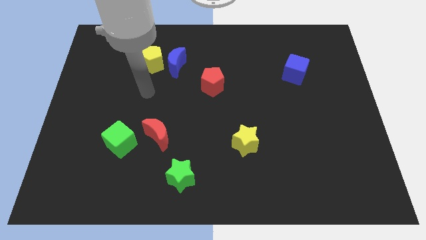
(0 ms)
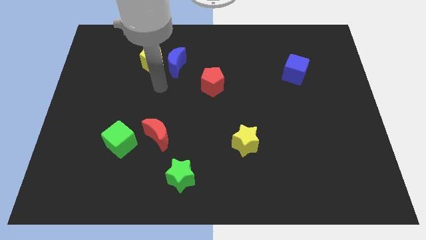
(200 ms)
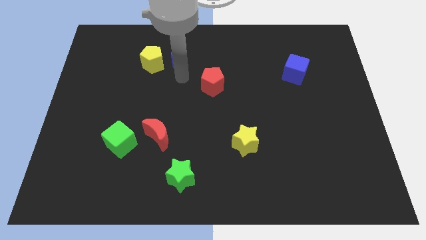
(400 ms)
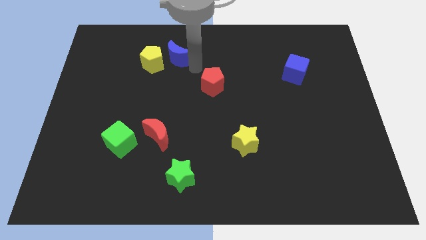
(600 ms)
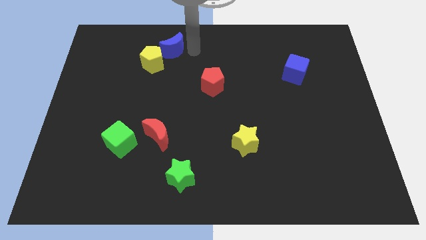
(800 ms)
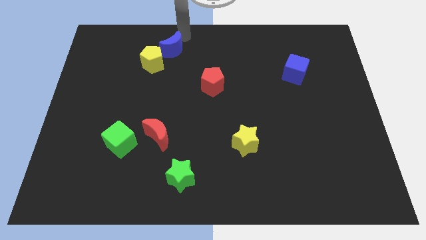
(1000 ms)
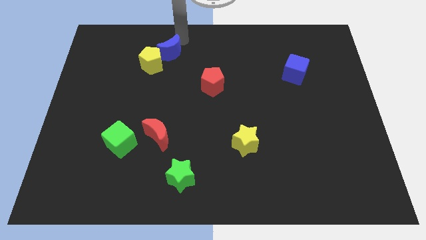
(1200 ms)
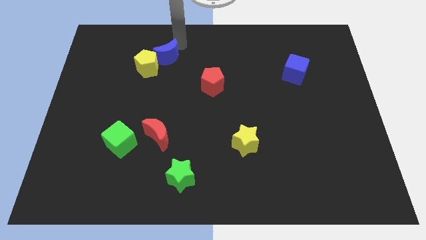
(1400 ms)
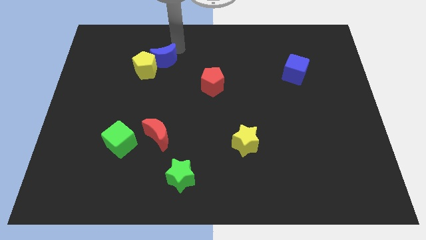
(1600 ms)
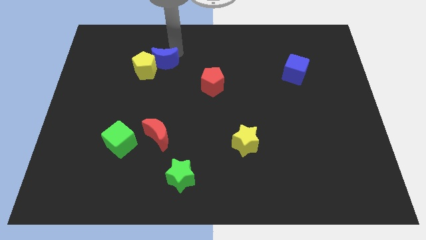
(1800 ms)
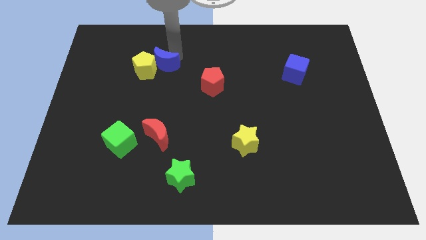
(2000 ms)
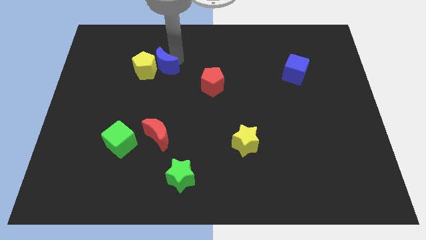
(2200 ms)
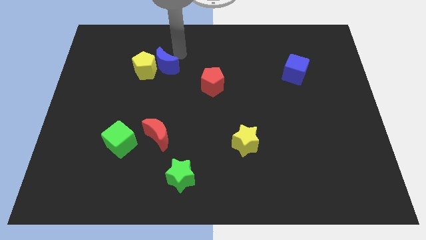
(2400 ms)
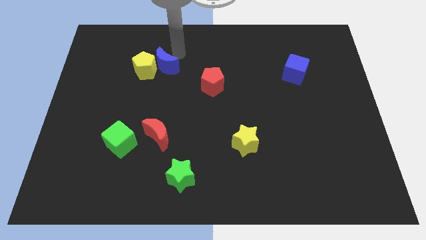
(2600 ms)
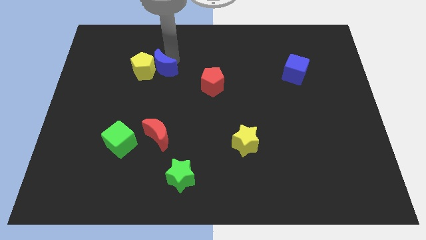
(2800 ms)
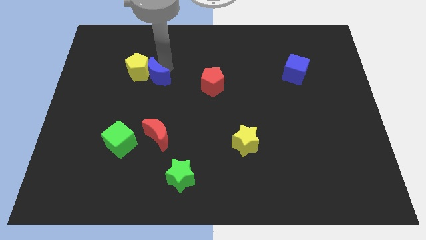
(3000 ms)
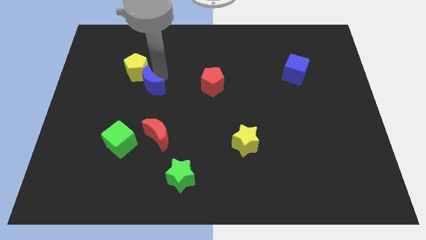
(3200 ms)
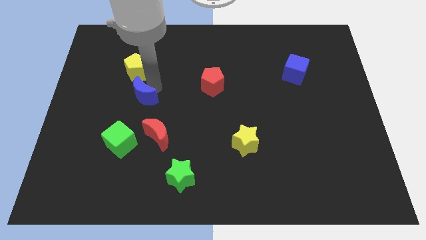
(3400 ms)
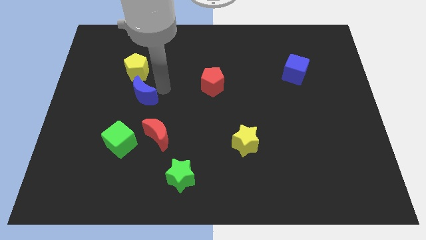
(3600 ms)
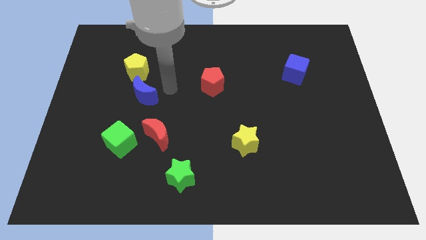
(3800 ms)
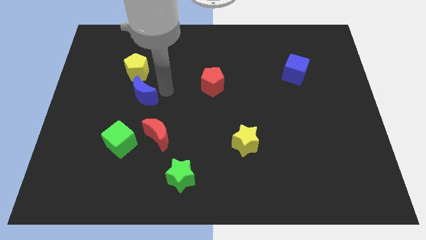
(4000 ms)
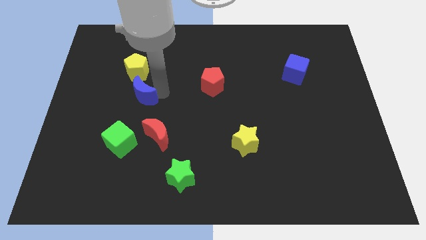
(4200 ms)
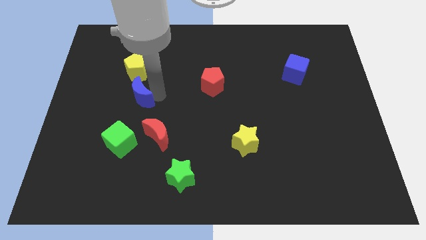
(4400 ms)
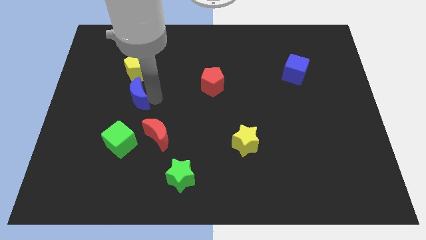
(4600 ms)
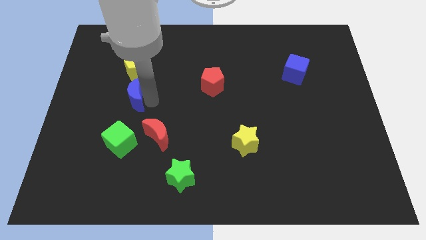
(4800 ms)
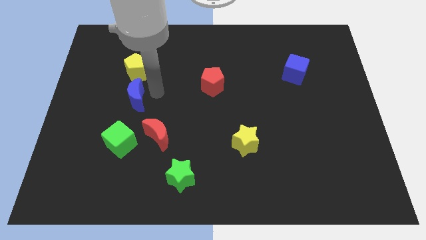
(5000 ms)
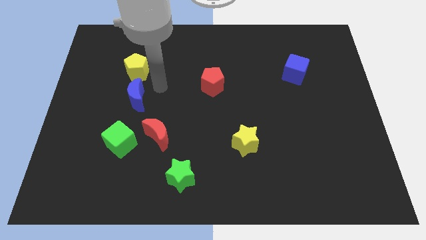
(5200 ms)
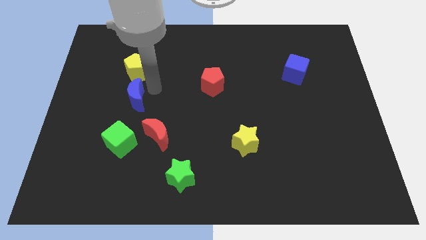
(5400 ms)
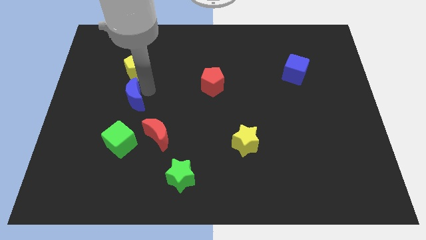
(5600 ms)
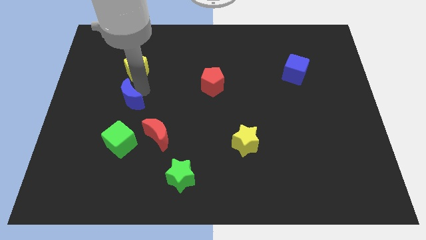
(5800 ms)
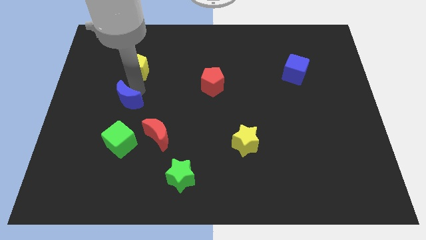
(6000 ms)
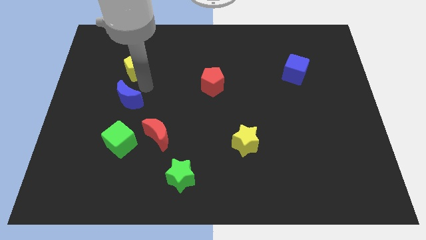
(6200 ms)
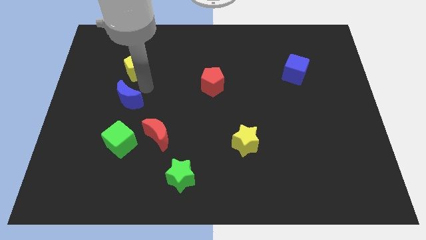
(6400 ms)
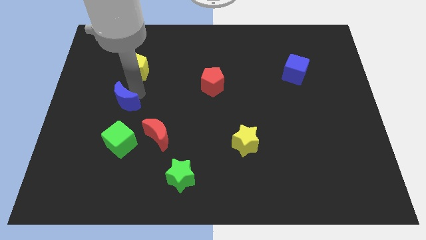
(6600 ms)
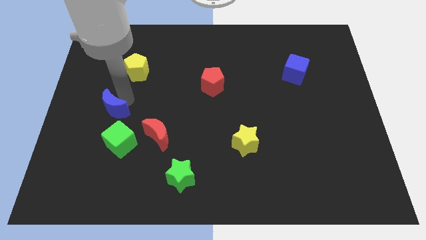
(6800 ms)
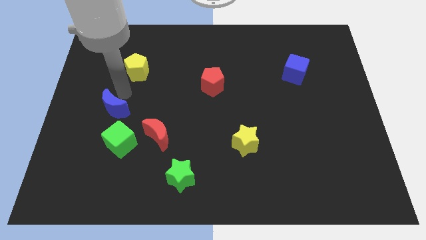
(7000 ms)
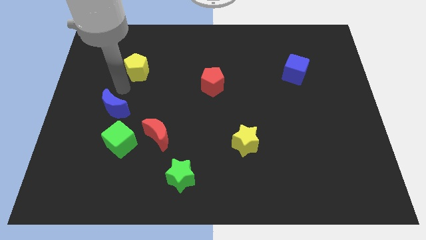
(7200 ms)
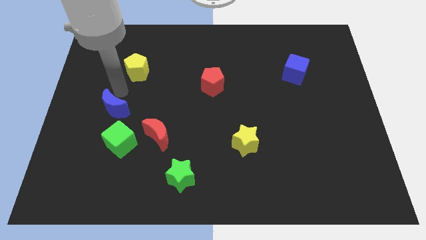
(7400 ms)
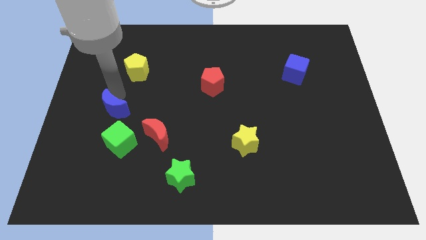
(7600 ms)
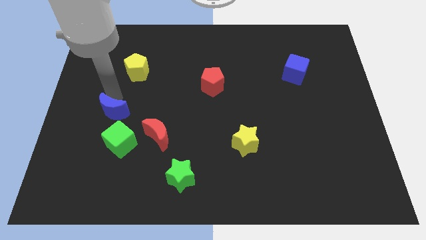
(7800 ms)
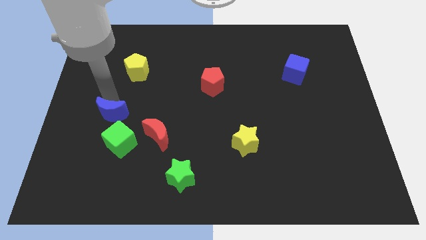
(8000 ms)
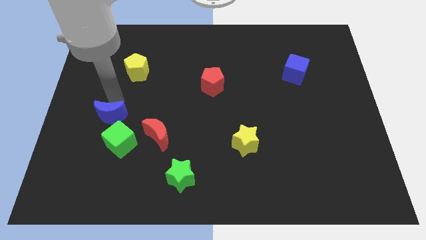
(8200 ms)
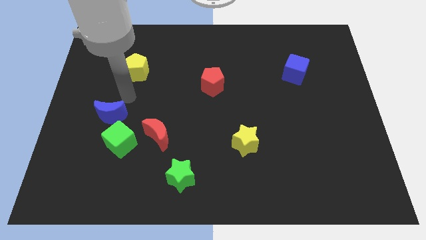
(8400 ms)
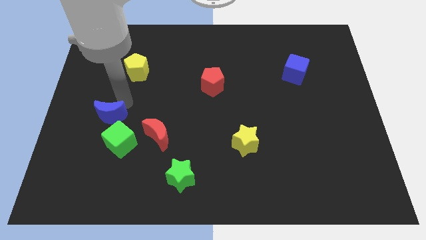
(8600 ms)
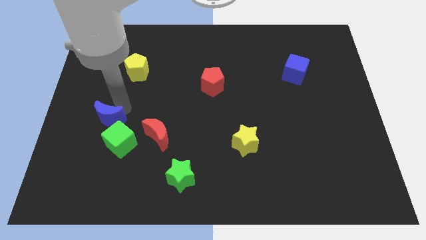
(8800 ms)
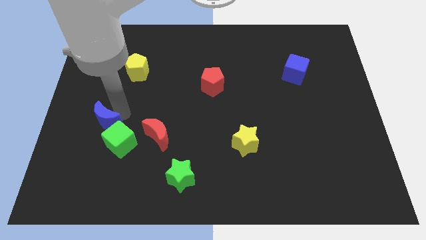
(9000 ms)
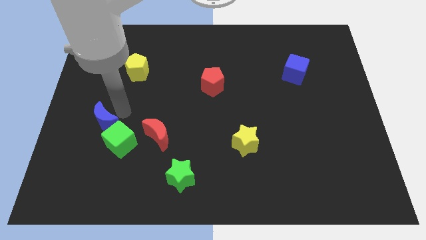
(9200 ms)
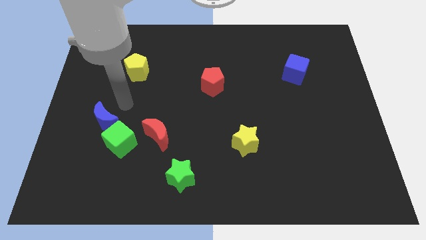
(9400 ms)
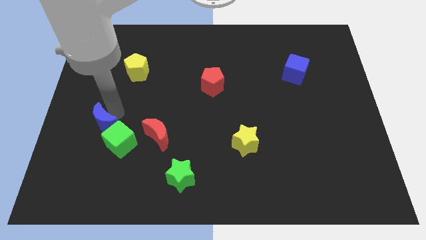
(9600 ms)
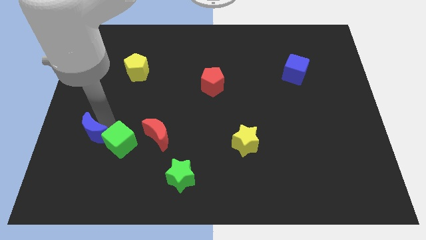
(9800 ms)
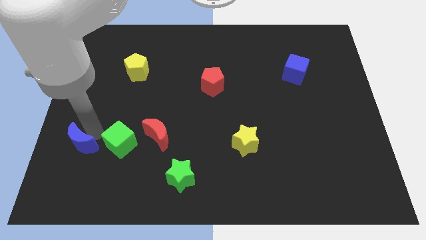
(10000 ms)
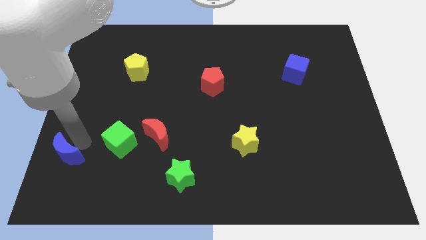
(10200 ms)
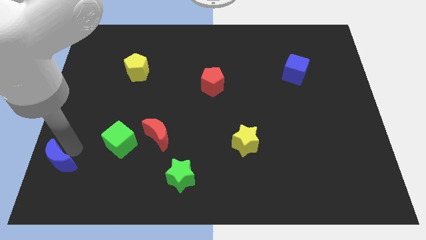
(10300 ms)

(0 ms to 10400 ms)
push the blue moon to the lower left corner

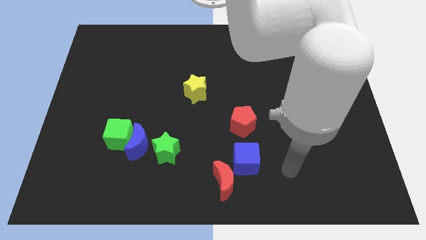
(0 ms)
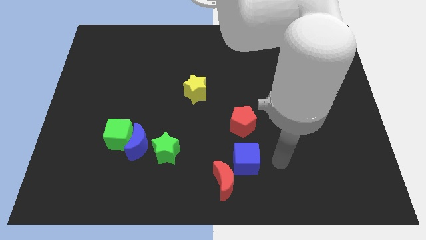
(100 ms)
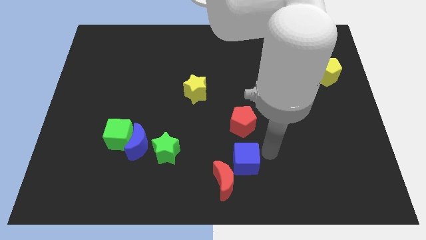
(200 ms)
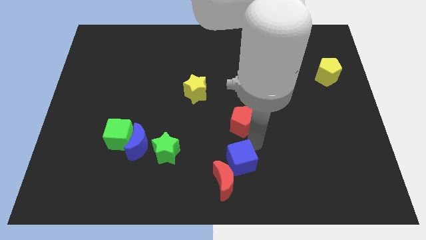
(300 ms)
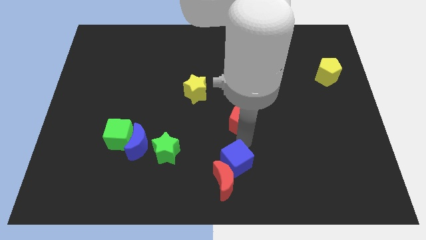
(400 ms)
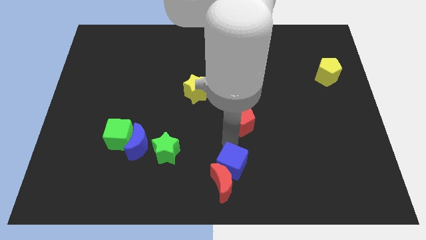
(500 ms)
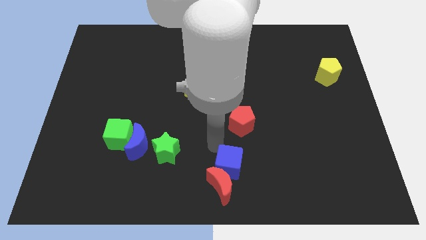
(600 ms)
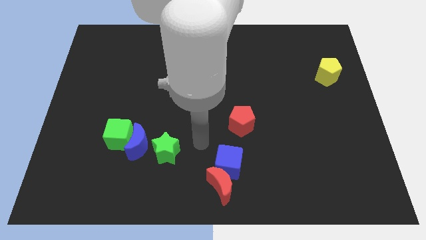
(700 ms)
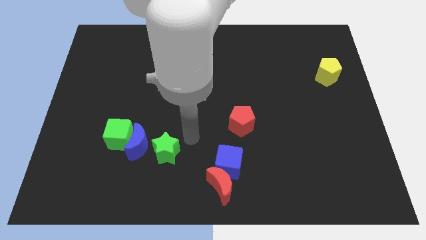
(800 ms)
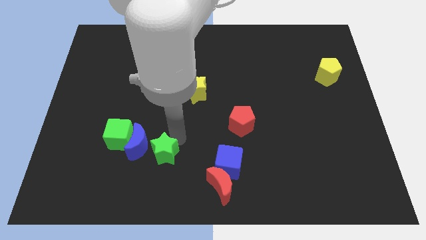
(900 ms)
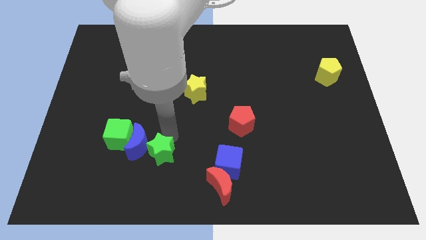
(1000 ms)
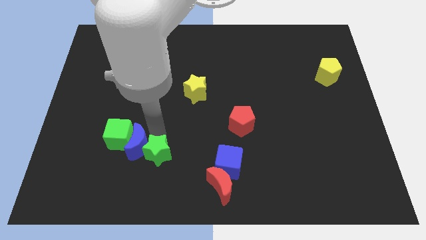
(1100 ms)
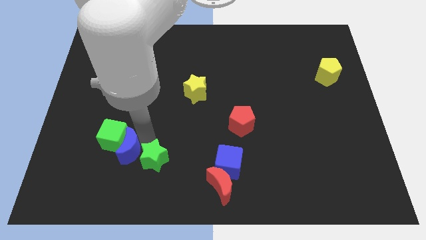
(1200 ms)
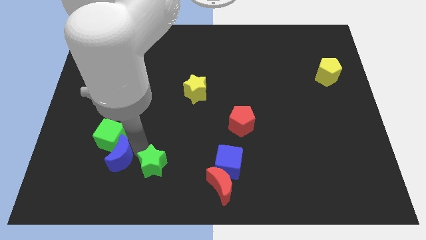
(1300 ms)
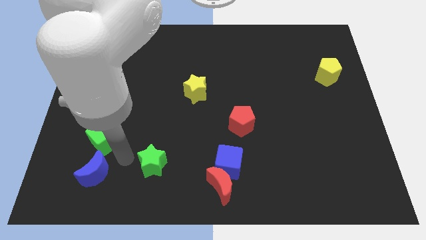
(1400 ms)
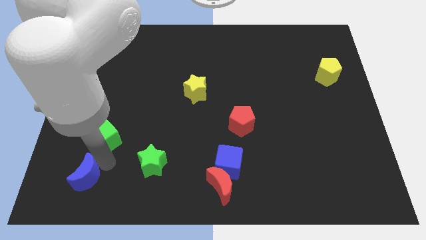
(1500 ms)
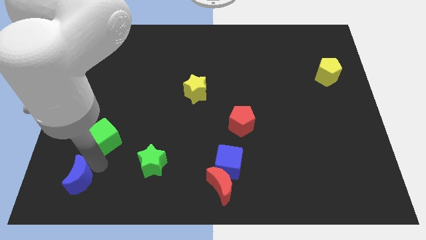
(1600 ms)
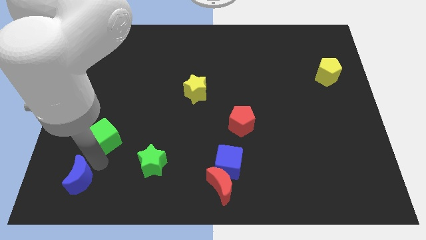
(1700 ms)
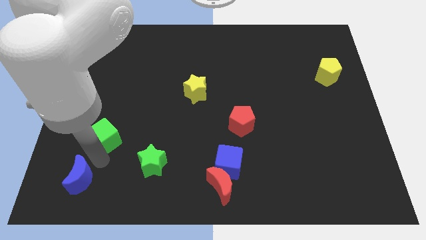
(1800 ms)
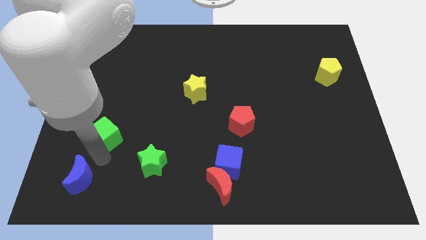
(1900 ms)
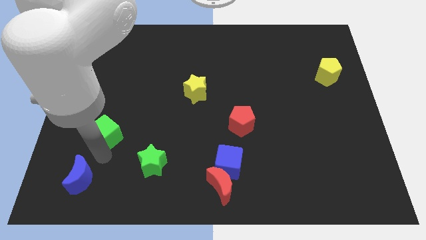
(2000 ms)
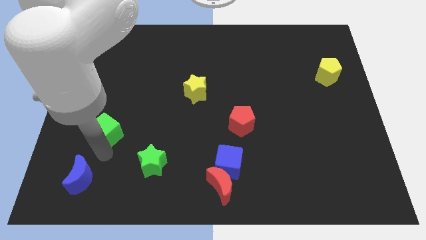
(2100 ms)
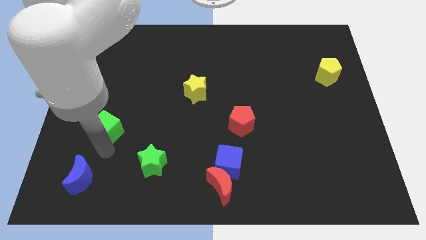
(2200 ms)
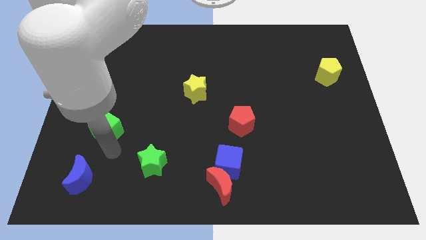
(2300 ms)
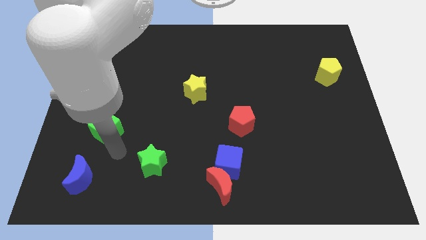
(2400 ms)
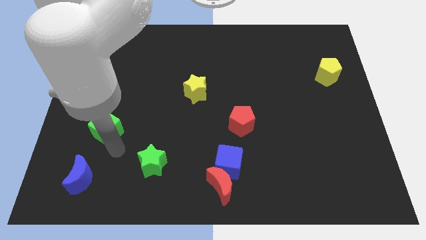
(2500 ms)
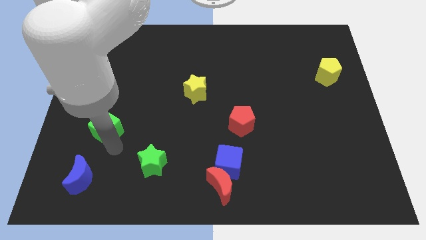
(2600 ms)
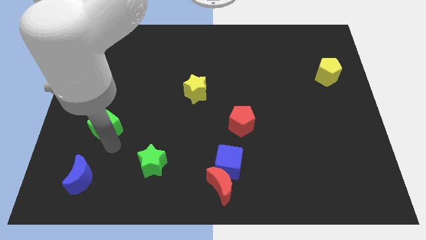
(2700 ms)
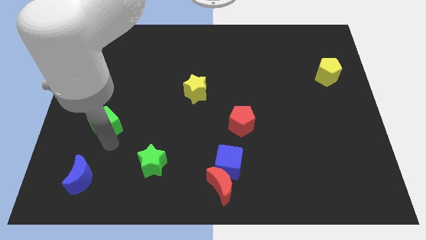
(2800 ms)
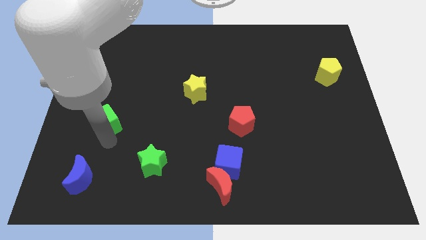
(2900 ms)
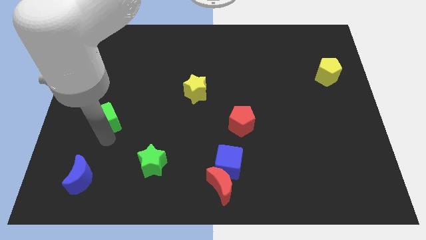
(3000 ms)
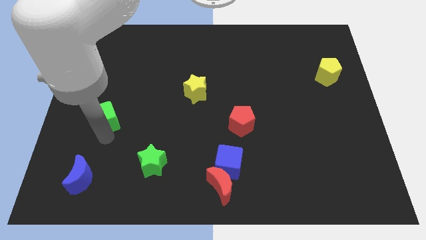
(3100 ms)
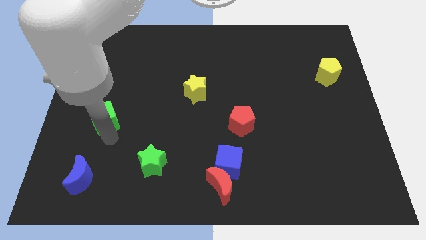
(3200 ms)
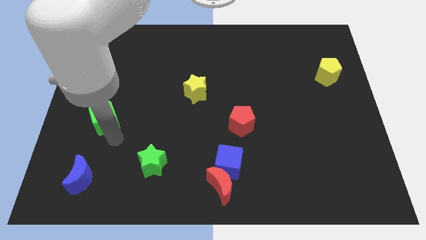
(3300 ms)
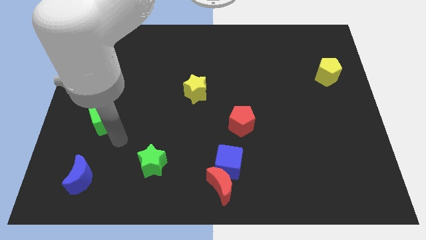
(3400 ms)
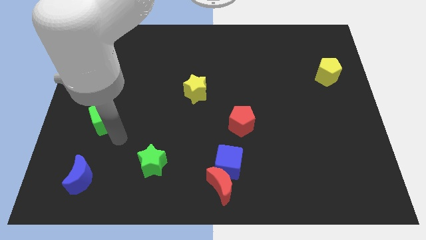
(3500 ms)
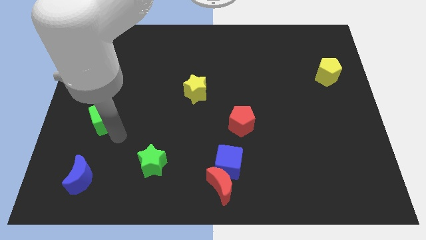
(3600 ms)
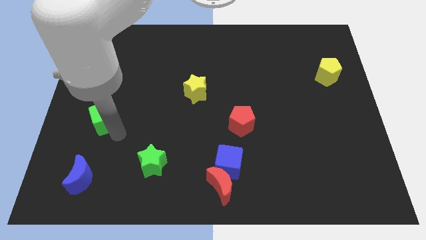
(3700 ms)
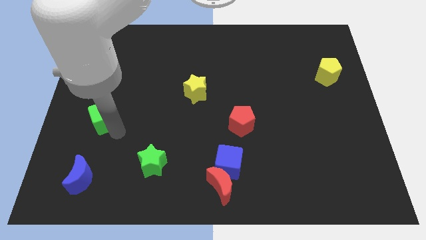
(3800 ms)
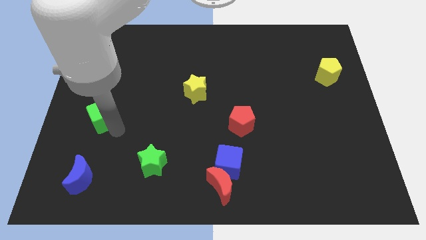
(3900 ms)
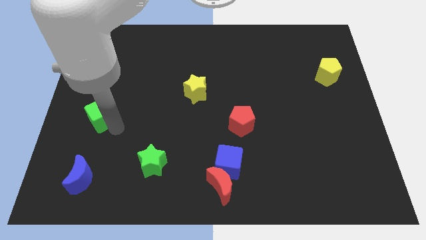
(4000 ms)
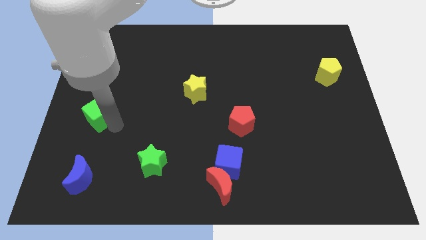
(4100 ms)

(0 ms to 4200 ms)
push the green cube to the center left
